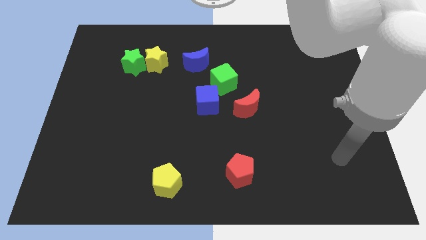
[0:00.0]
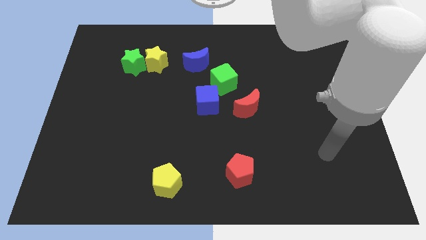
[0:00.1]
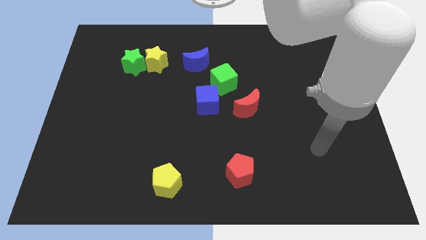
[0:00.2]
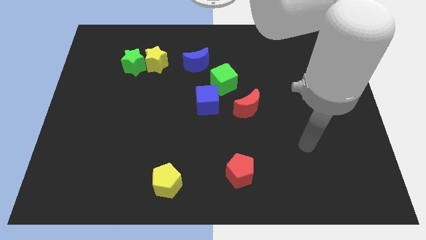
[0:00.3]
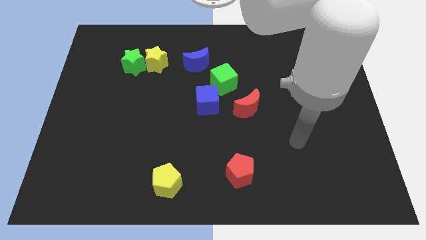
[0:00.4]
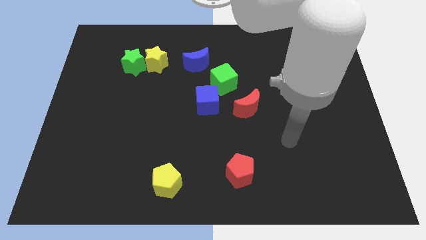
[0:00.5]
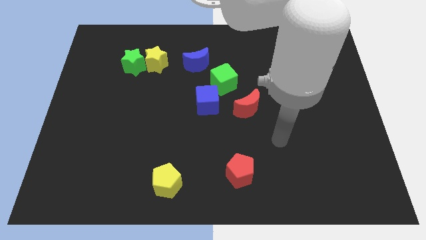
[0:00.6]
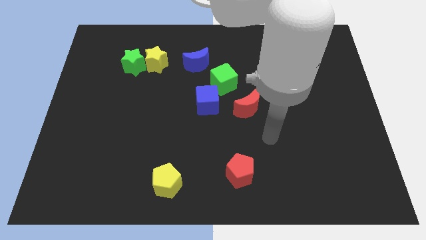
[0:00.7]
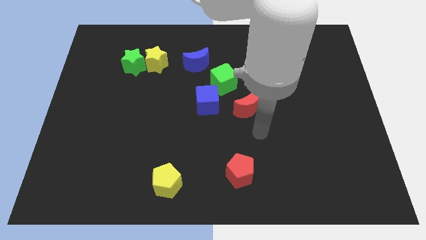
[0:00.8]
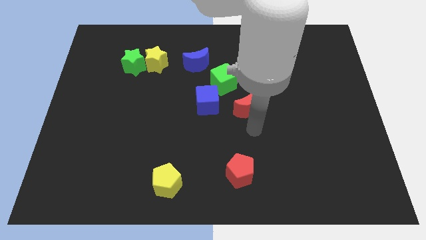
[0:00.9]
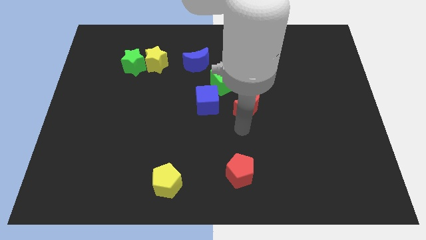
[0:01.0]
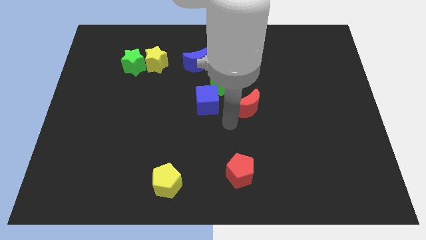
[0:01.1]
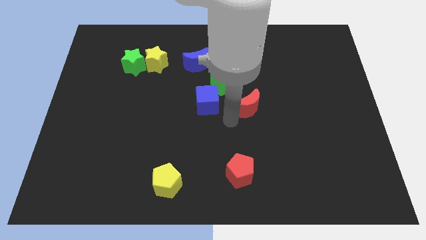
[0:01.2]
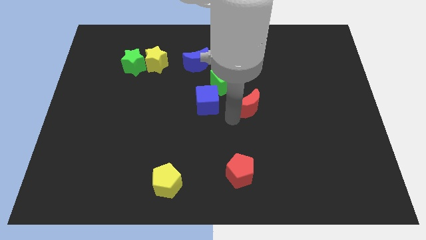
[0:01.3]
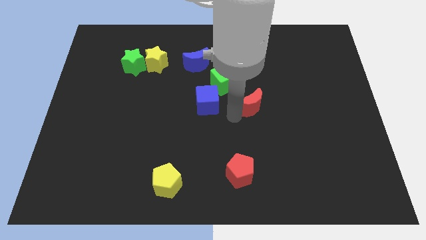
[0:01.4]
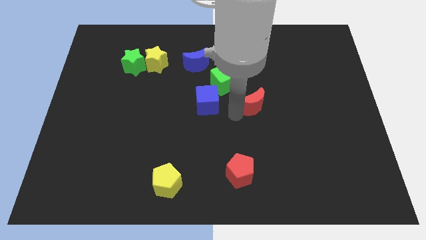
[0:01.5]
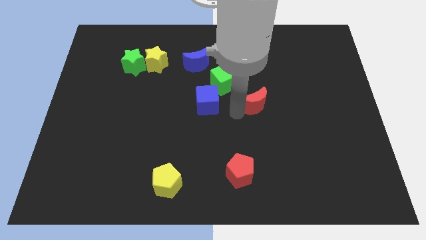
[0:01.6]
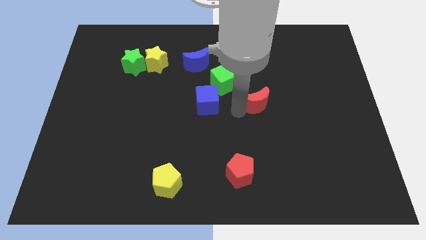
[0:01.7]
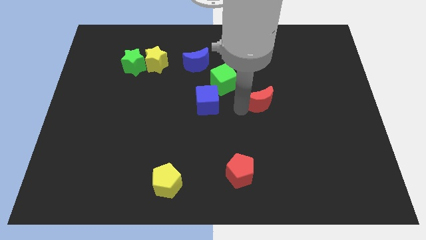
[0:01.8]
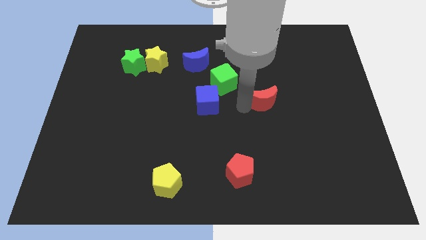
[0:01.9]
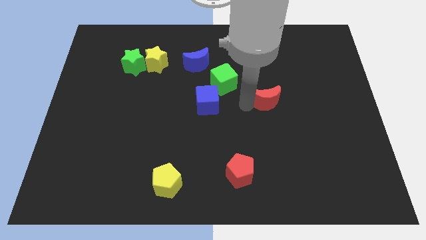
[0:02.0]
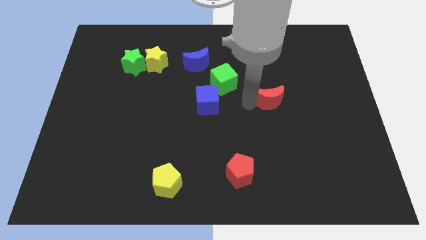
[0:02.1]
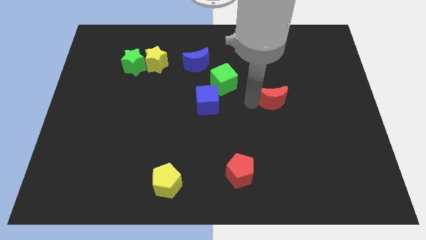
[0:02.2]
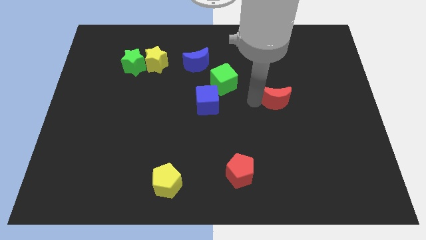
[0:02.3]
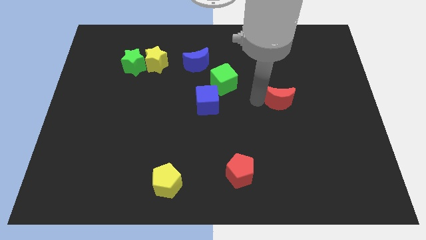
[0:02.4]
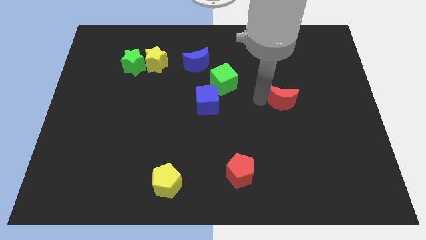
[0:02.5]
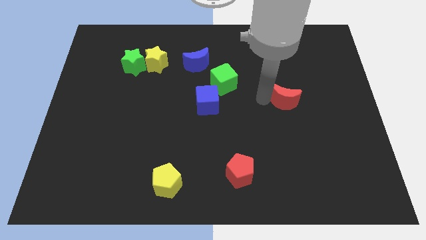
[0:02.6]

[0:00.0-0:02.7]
slightly move the red moon upwards and to the right

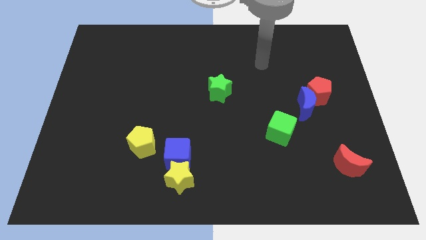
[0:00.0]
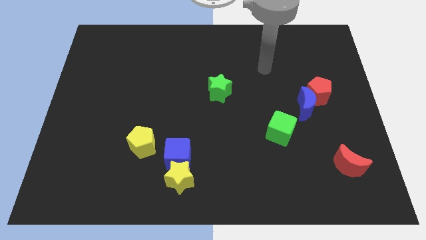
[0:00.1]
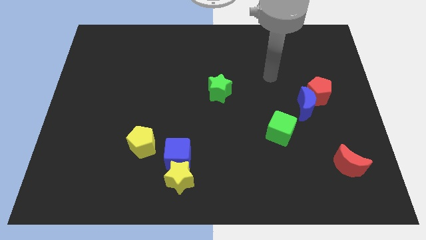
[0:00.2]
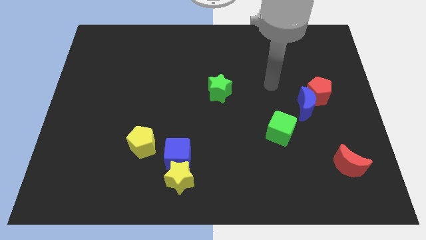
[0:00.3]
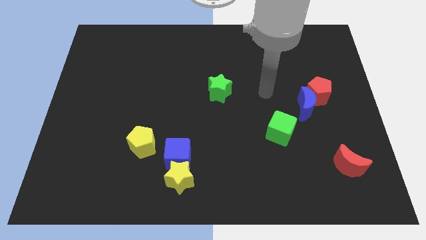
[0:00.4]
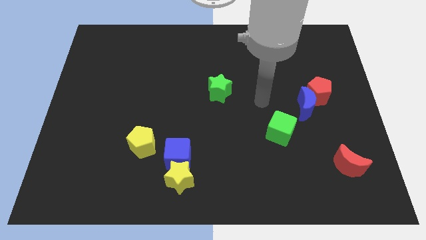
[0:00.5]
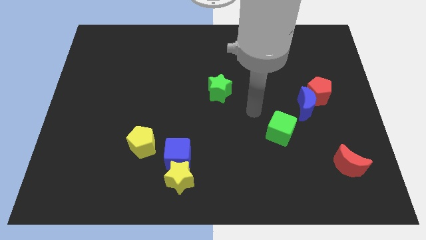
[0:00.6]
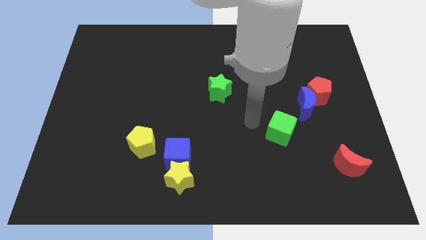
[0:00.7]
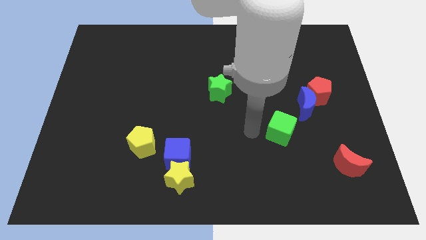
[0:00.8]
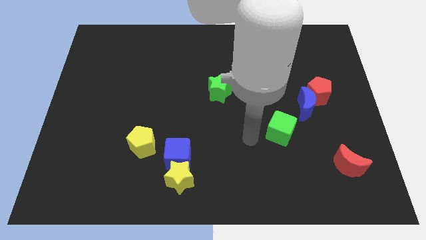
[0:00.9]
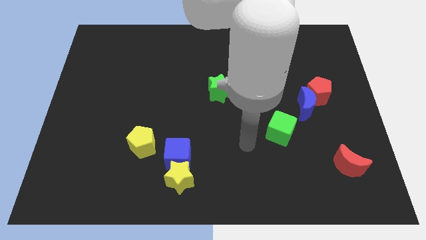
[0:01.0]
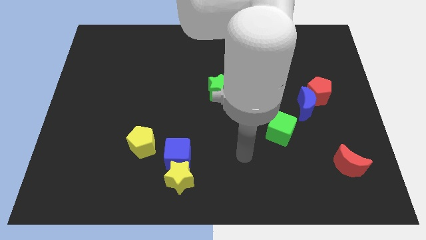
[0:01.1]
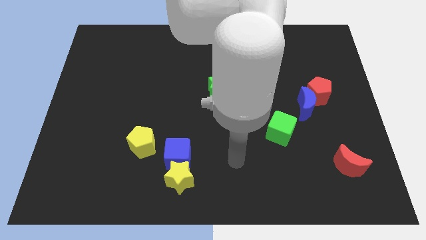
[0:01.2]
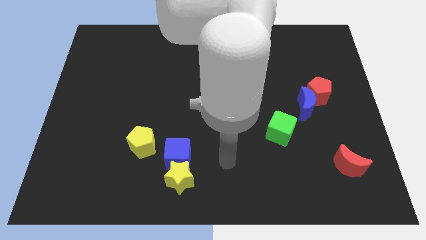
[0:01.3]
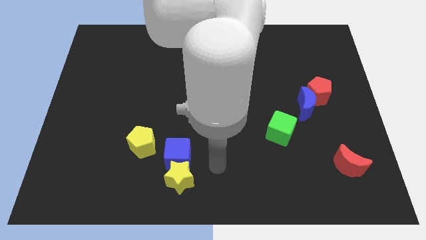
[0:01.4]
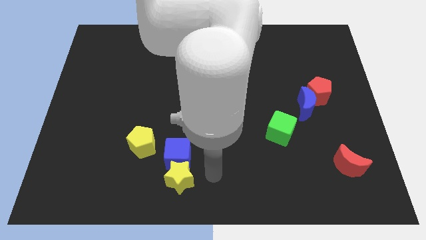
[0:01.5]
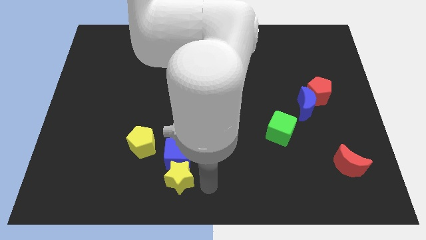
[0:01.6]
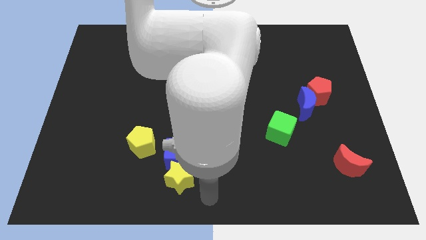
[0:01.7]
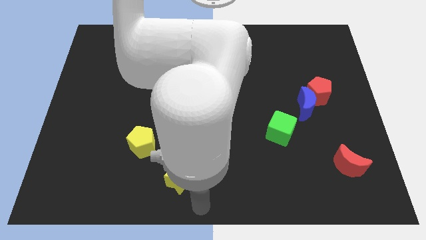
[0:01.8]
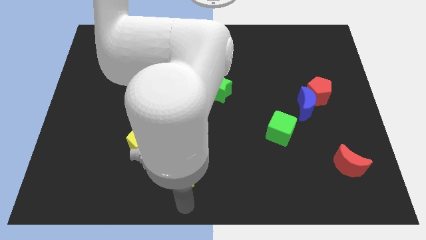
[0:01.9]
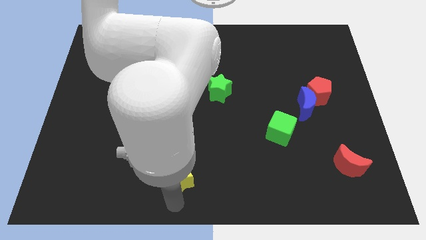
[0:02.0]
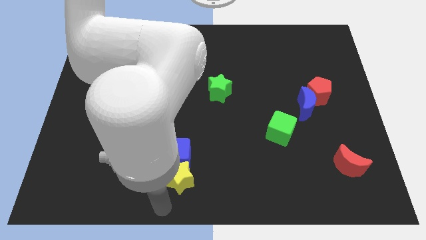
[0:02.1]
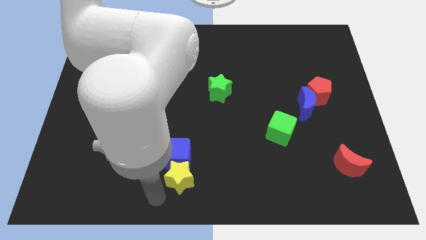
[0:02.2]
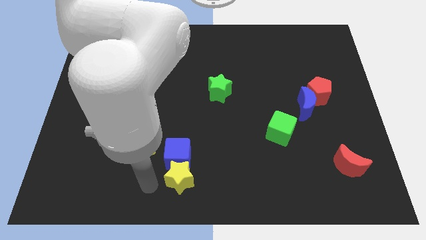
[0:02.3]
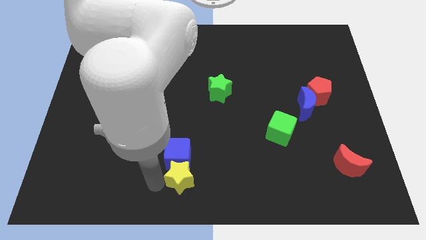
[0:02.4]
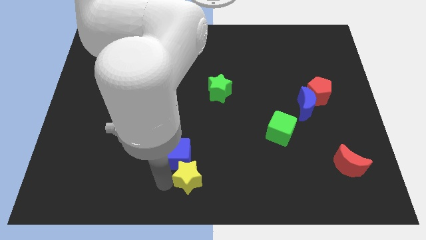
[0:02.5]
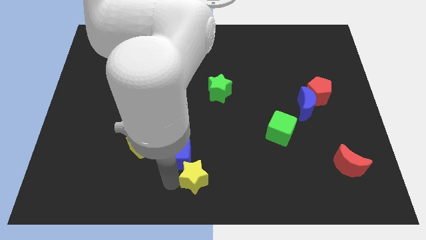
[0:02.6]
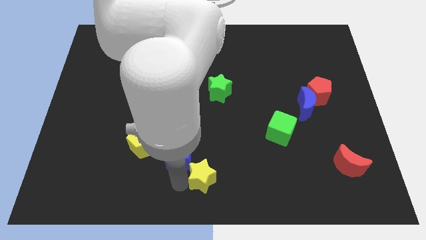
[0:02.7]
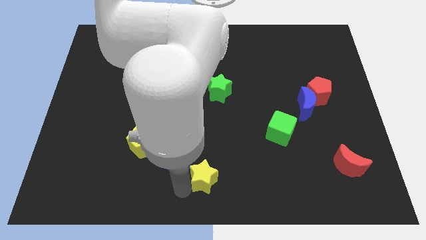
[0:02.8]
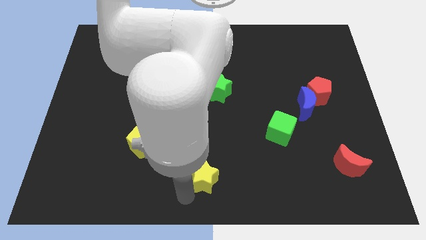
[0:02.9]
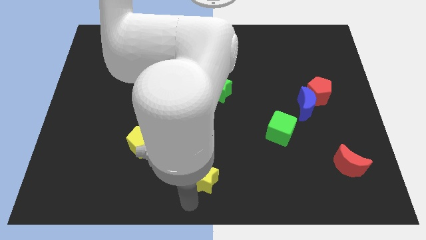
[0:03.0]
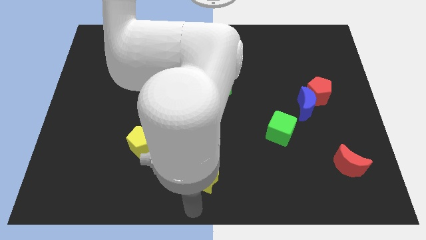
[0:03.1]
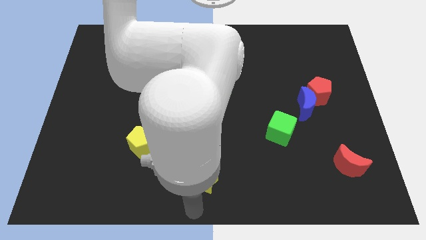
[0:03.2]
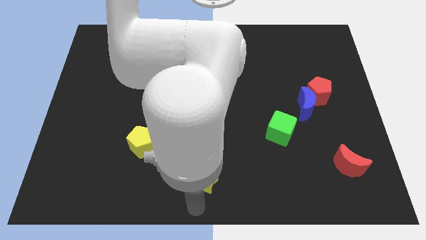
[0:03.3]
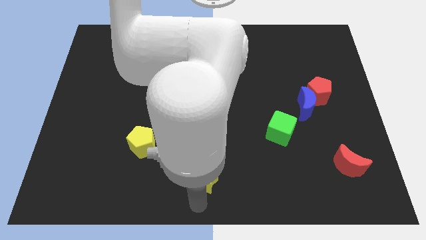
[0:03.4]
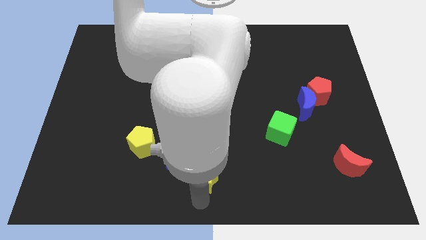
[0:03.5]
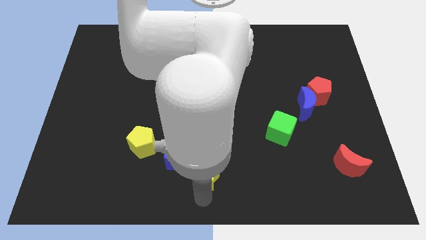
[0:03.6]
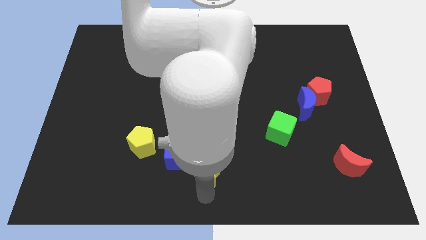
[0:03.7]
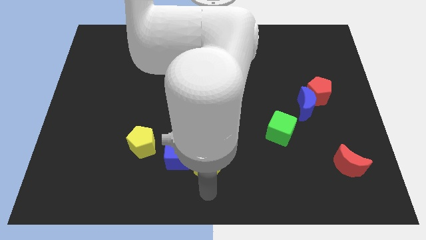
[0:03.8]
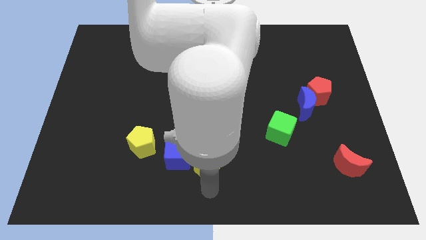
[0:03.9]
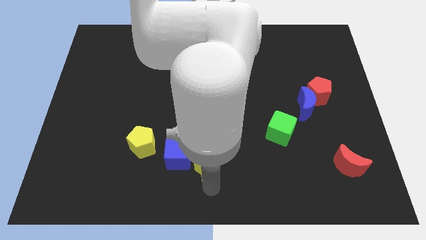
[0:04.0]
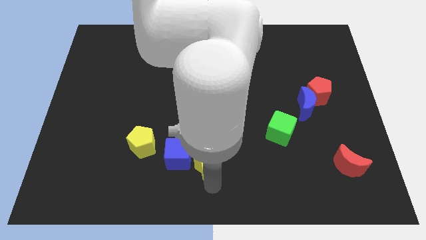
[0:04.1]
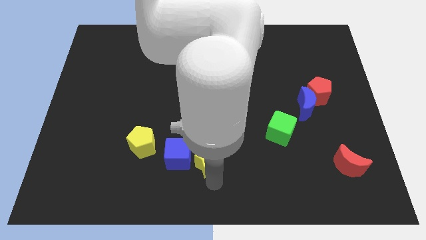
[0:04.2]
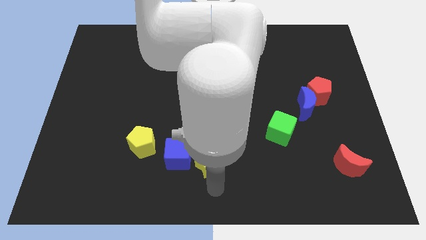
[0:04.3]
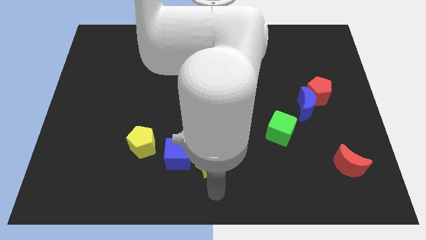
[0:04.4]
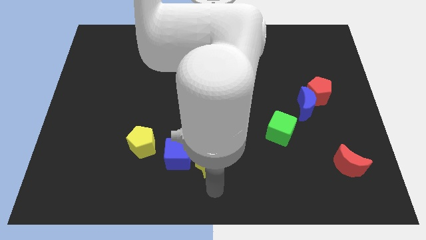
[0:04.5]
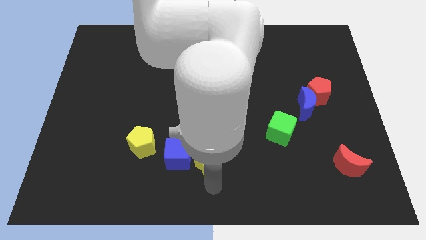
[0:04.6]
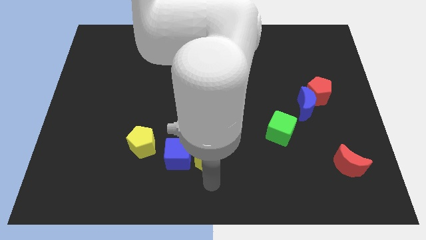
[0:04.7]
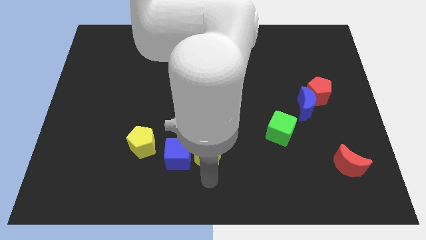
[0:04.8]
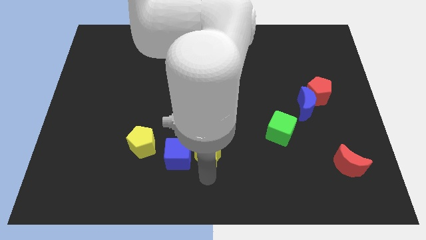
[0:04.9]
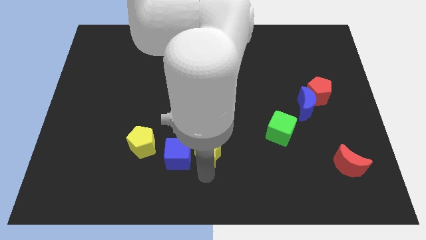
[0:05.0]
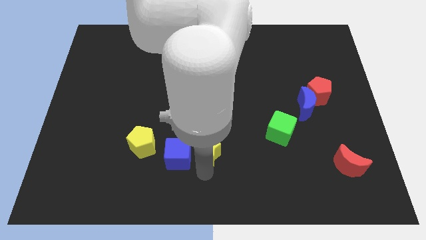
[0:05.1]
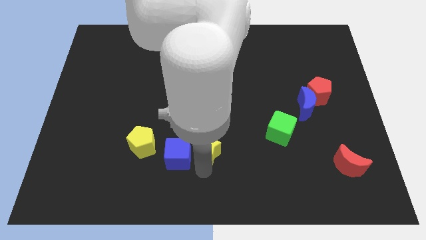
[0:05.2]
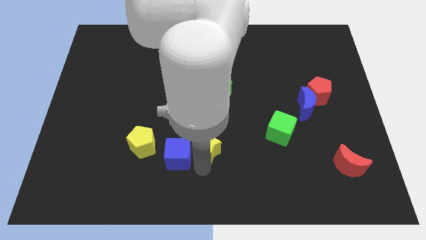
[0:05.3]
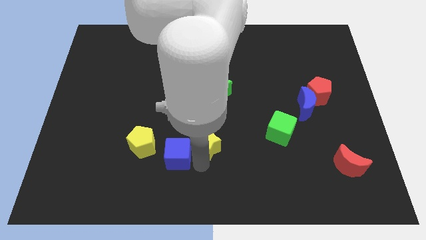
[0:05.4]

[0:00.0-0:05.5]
slightly move the yellow star upwards
